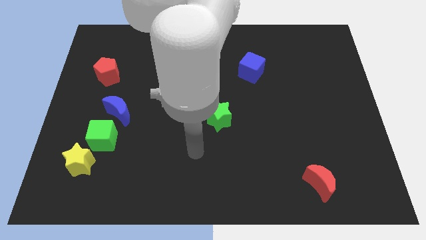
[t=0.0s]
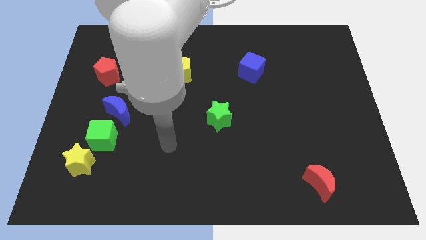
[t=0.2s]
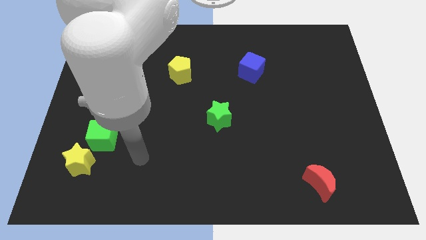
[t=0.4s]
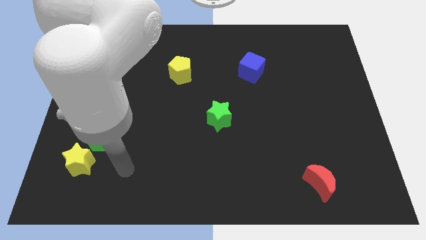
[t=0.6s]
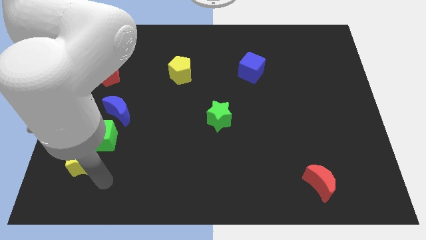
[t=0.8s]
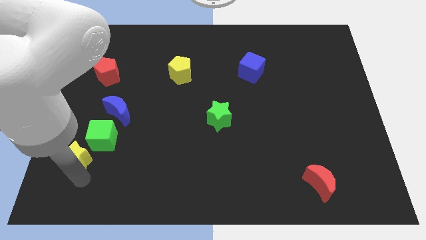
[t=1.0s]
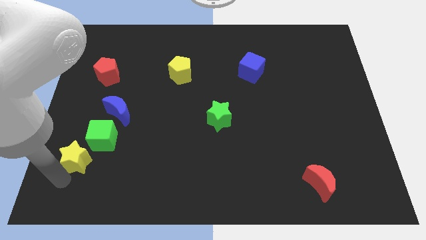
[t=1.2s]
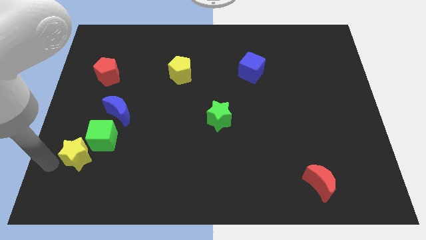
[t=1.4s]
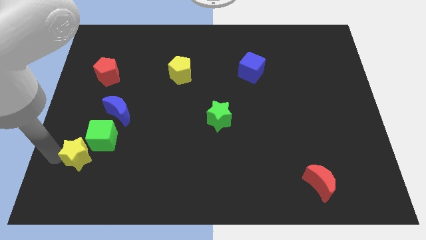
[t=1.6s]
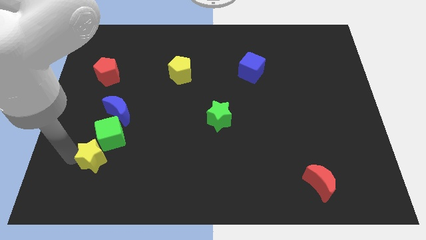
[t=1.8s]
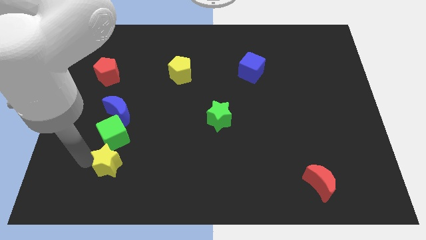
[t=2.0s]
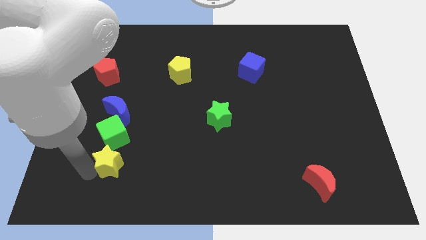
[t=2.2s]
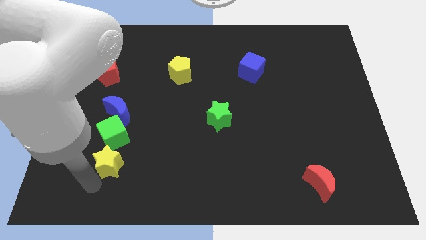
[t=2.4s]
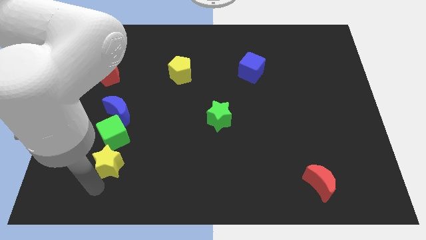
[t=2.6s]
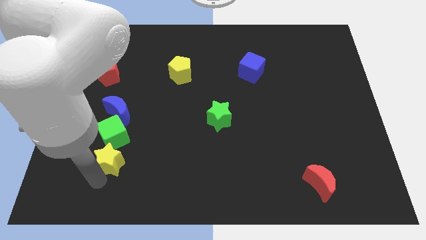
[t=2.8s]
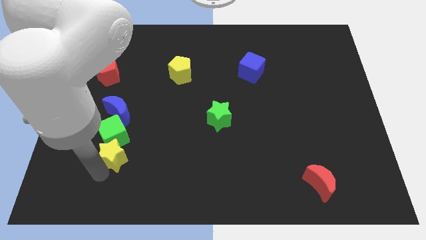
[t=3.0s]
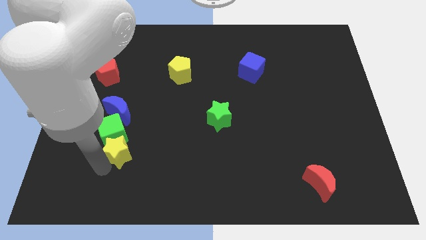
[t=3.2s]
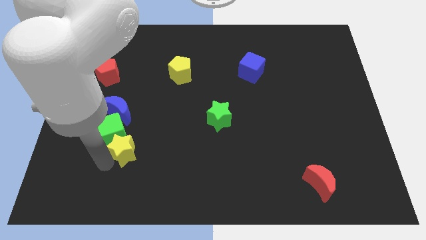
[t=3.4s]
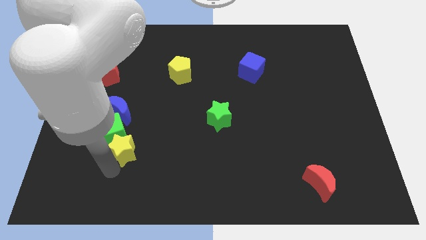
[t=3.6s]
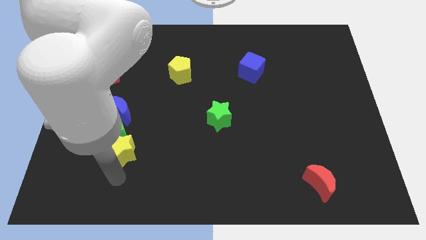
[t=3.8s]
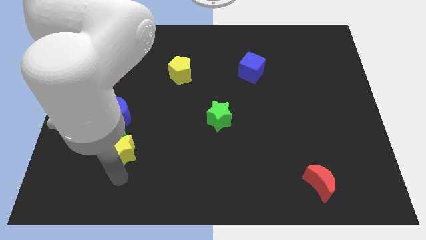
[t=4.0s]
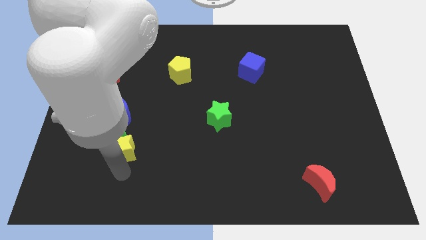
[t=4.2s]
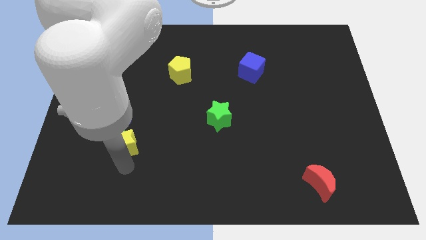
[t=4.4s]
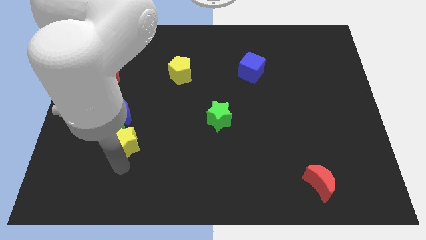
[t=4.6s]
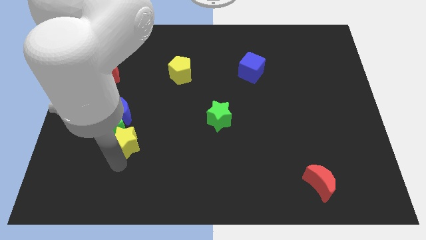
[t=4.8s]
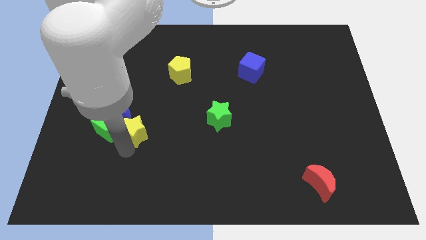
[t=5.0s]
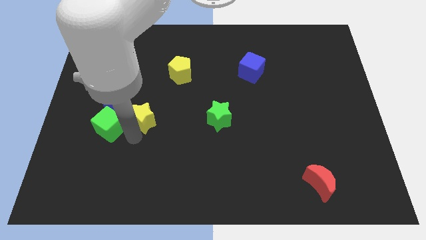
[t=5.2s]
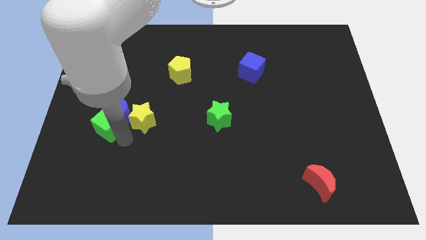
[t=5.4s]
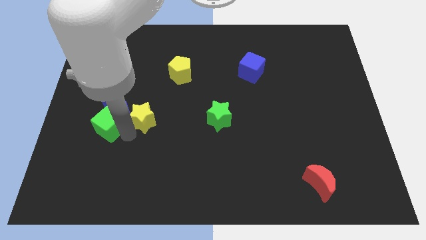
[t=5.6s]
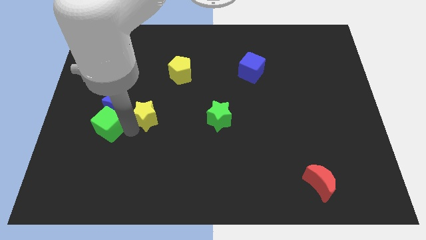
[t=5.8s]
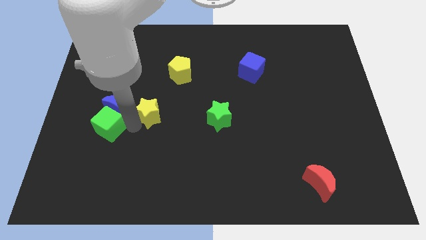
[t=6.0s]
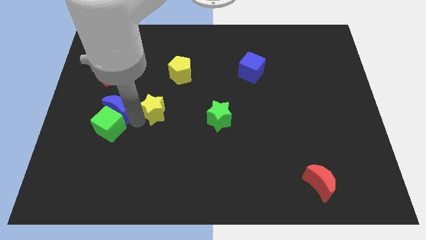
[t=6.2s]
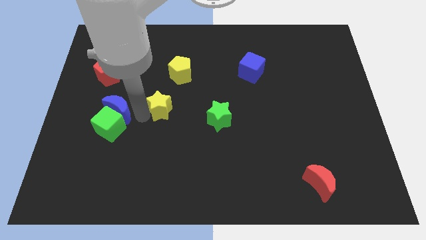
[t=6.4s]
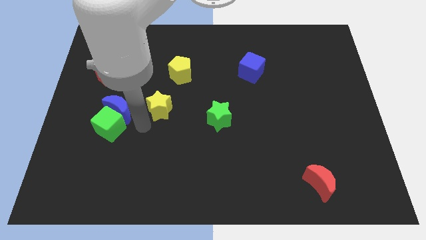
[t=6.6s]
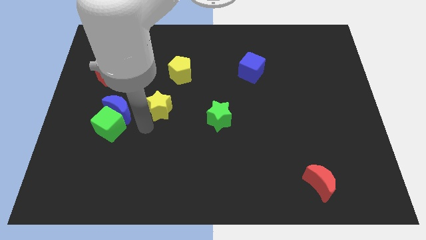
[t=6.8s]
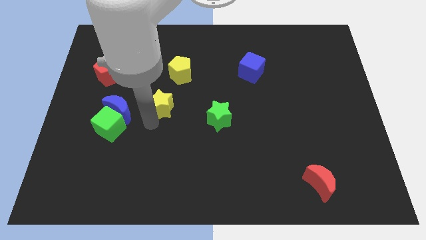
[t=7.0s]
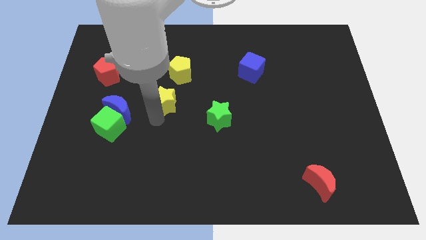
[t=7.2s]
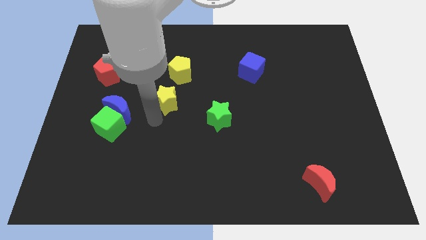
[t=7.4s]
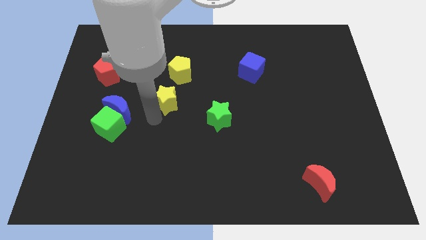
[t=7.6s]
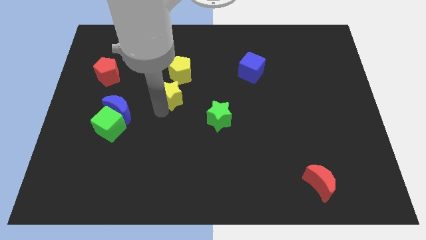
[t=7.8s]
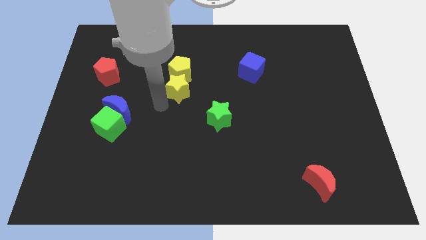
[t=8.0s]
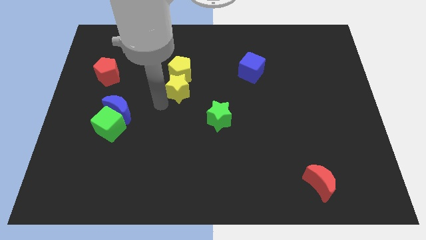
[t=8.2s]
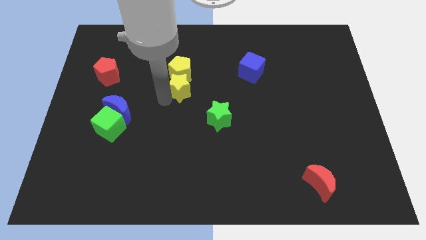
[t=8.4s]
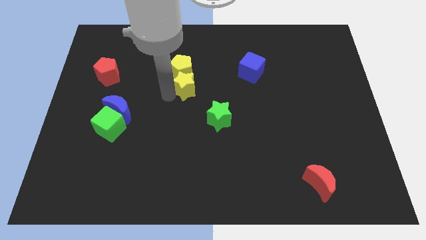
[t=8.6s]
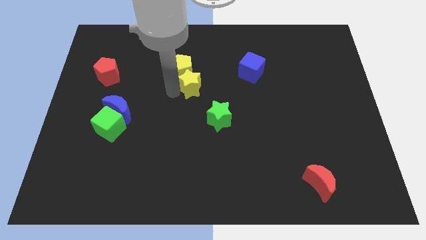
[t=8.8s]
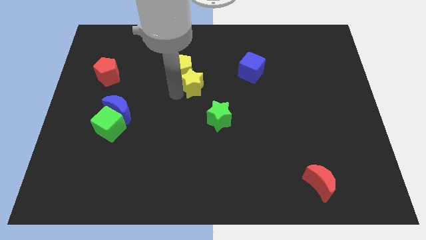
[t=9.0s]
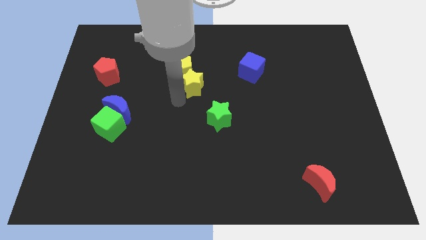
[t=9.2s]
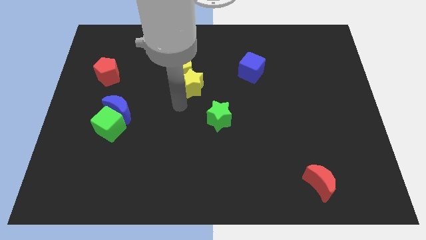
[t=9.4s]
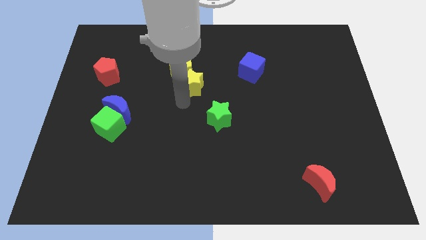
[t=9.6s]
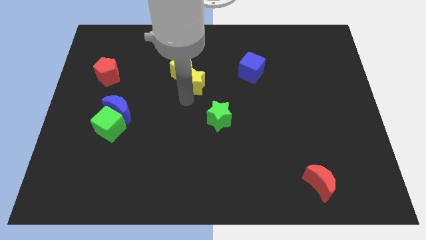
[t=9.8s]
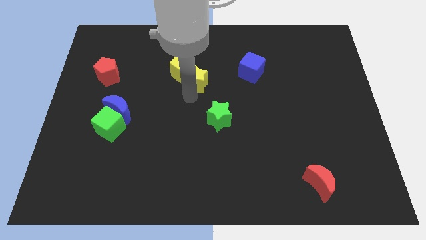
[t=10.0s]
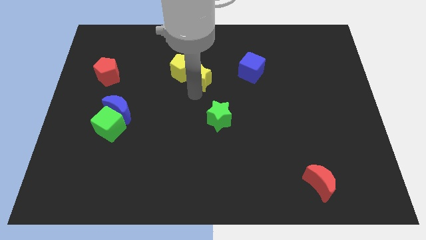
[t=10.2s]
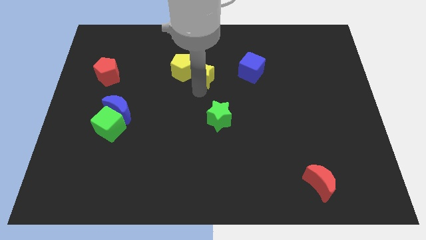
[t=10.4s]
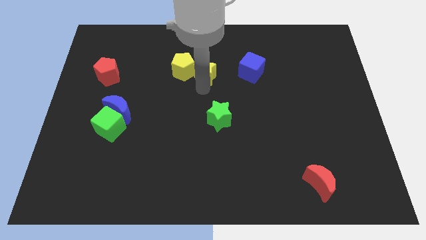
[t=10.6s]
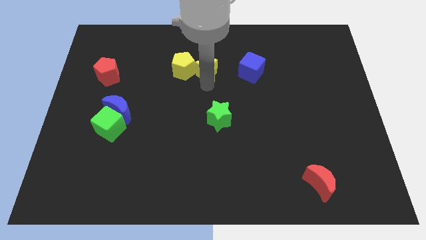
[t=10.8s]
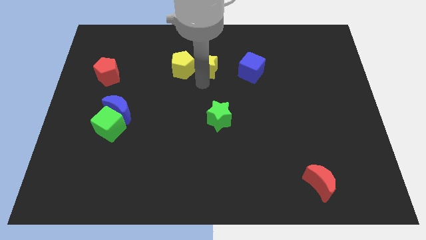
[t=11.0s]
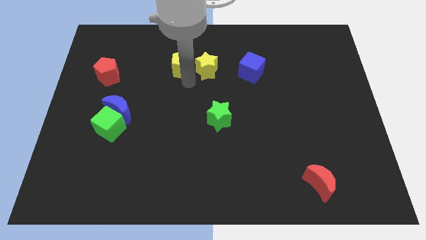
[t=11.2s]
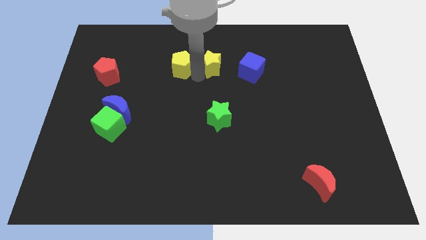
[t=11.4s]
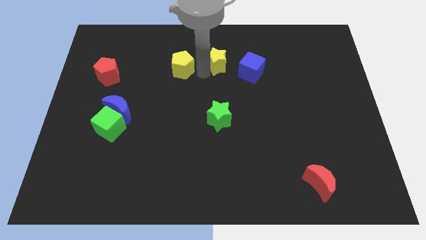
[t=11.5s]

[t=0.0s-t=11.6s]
push the yellow star diagonally up and to the left of the blue cube

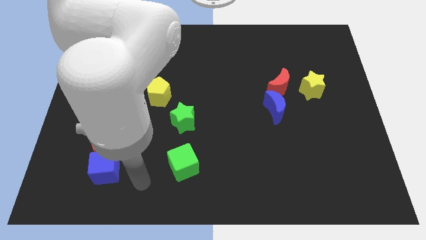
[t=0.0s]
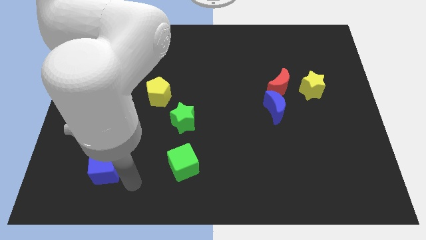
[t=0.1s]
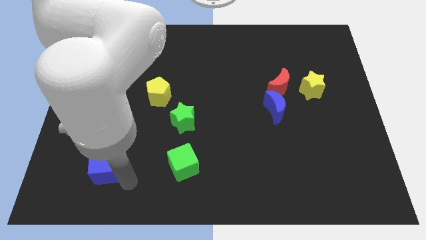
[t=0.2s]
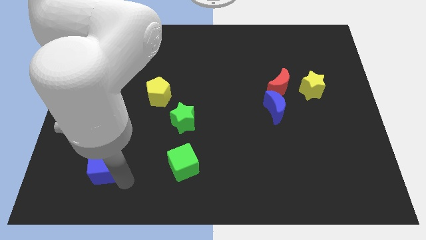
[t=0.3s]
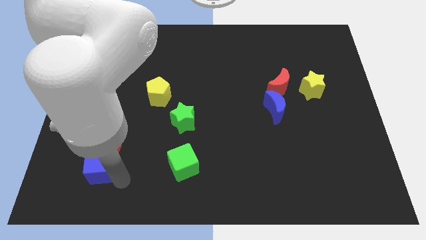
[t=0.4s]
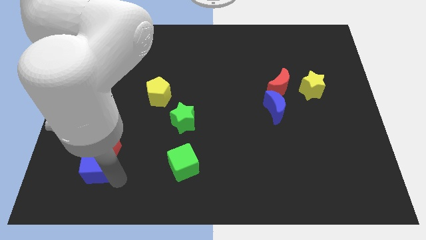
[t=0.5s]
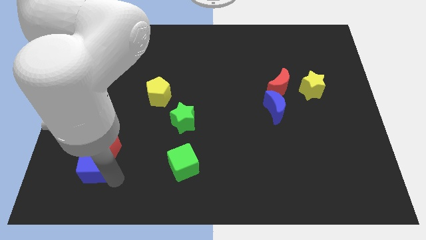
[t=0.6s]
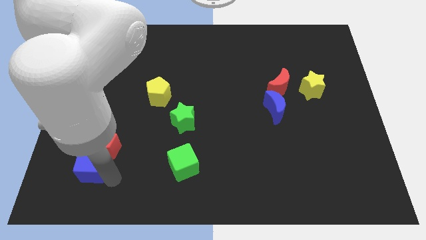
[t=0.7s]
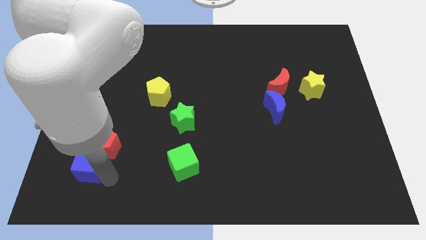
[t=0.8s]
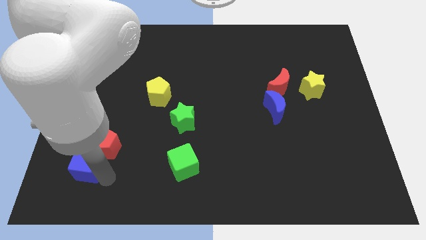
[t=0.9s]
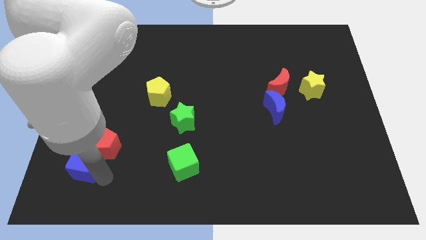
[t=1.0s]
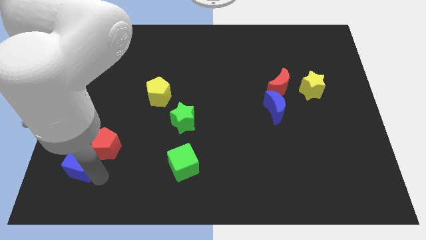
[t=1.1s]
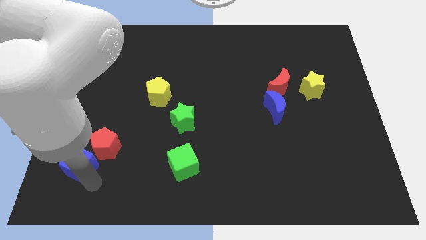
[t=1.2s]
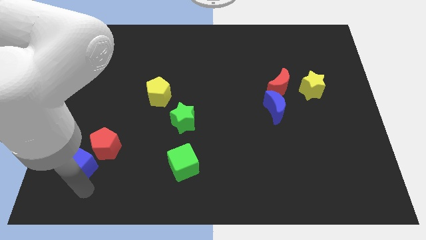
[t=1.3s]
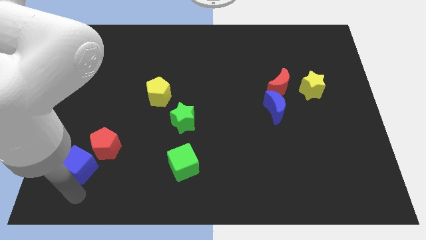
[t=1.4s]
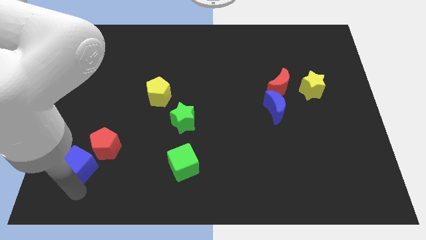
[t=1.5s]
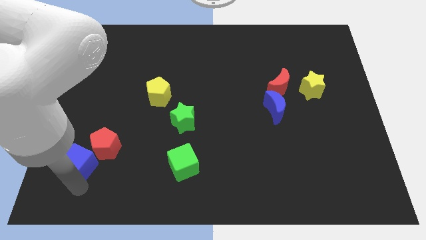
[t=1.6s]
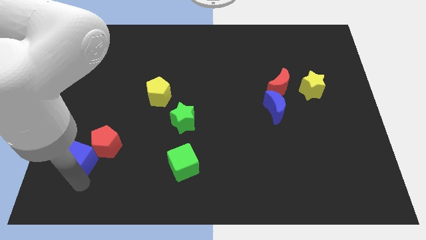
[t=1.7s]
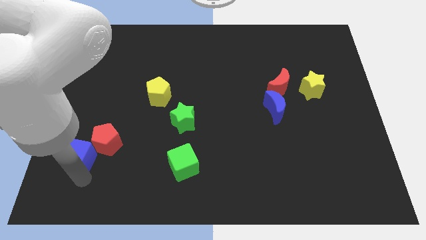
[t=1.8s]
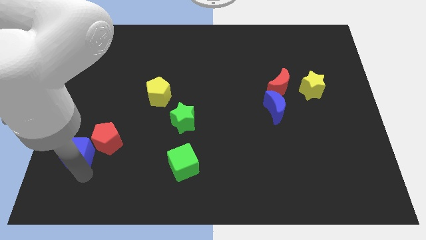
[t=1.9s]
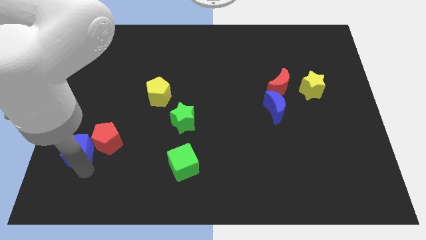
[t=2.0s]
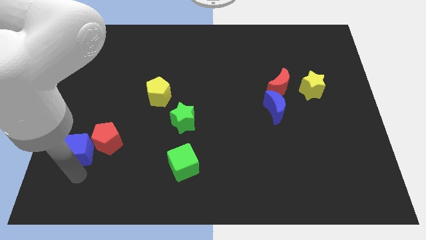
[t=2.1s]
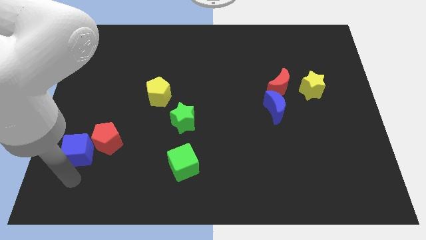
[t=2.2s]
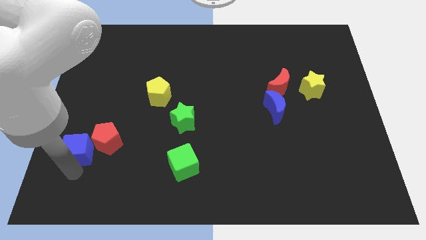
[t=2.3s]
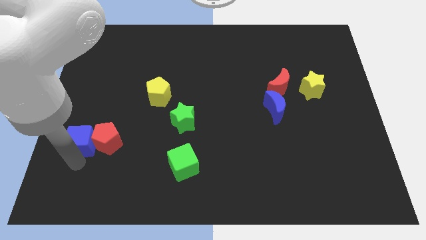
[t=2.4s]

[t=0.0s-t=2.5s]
put the blue cube to the top left of the red pentagon
